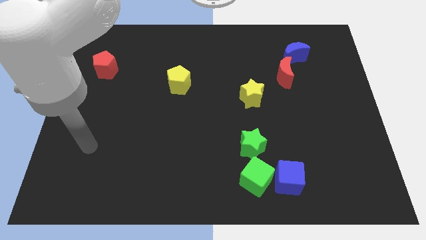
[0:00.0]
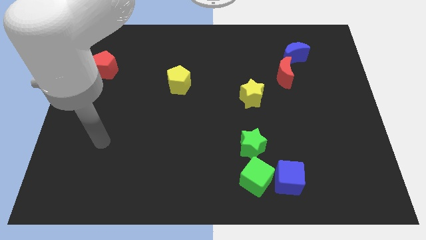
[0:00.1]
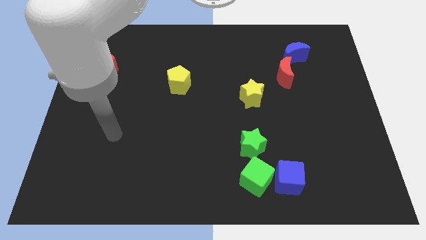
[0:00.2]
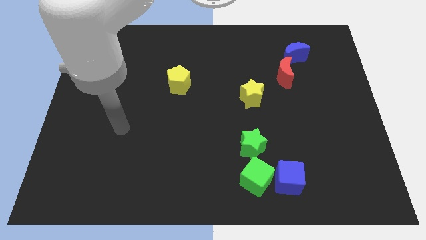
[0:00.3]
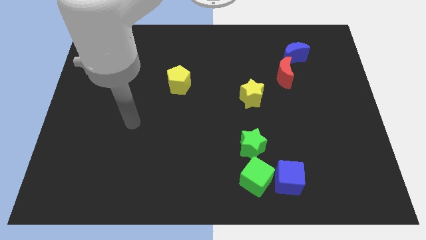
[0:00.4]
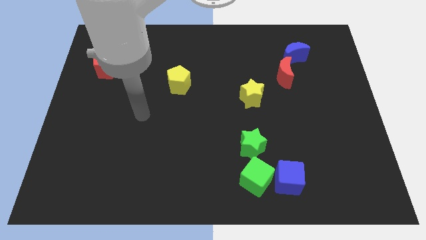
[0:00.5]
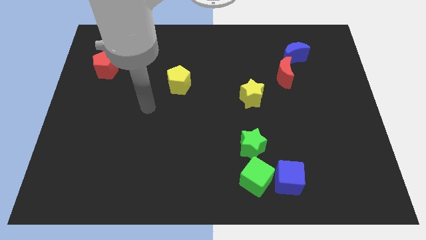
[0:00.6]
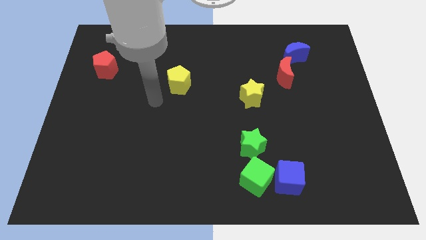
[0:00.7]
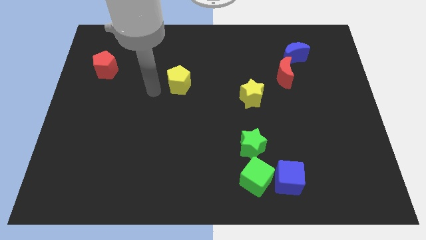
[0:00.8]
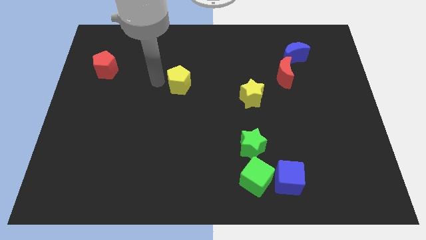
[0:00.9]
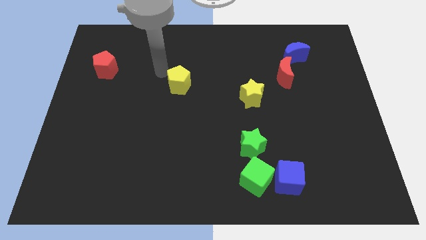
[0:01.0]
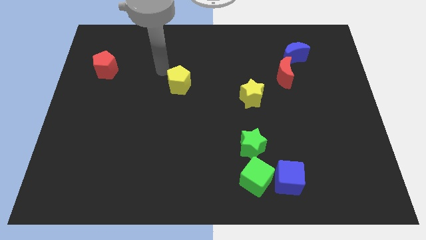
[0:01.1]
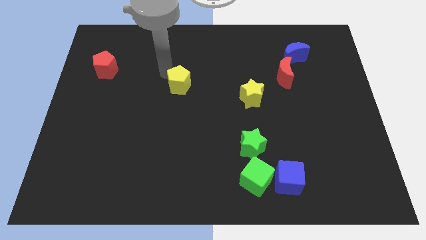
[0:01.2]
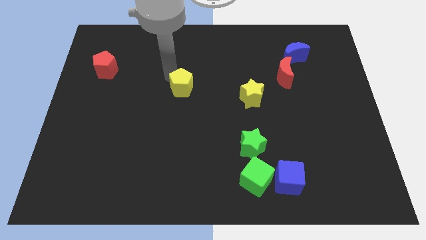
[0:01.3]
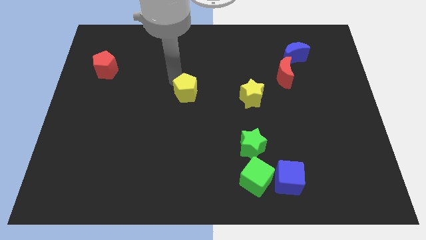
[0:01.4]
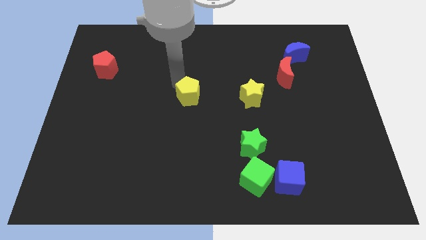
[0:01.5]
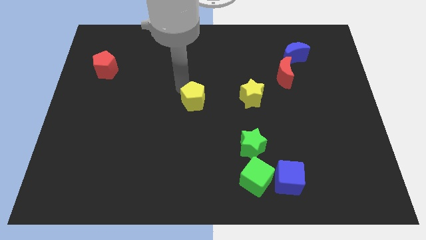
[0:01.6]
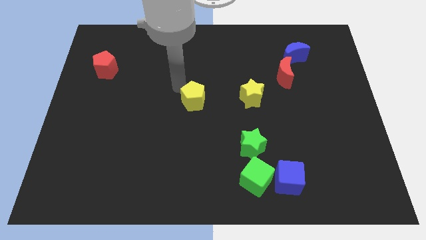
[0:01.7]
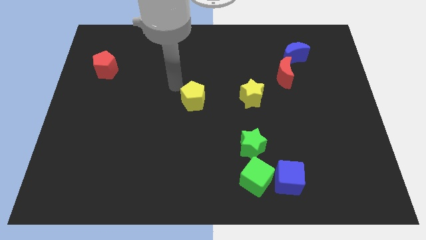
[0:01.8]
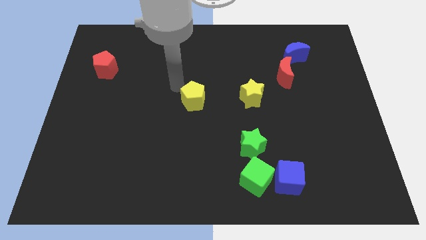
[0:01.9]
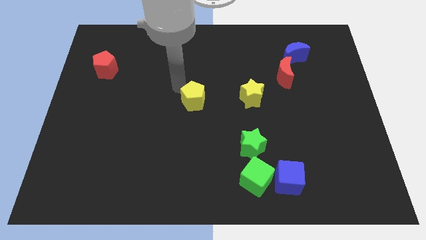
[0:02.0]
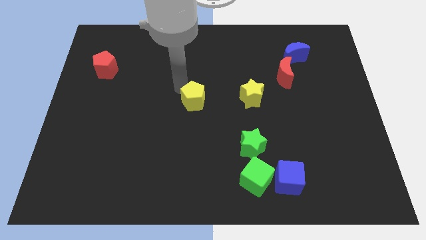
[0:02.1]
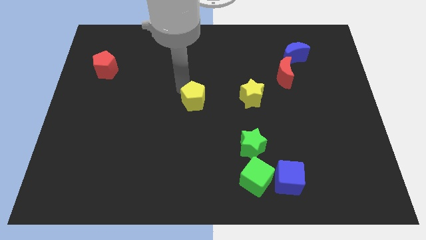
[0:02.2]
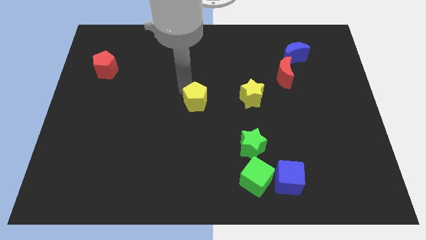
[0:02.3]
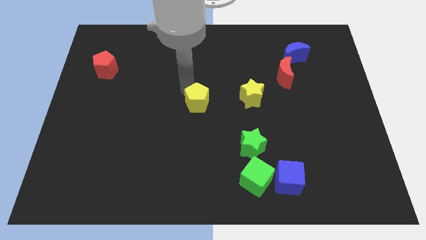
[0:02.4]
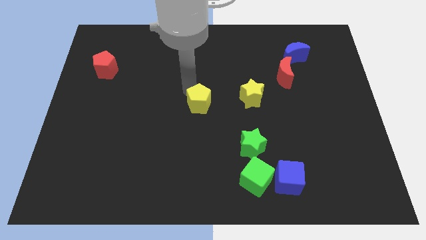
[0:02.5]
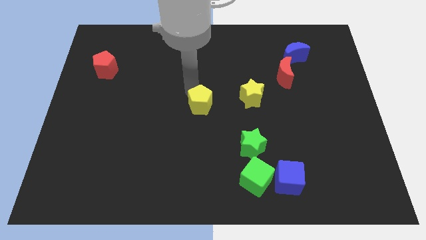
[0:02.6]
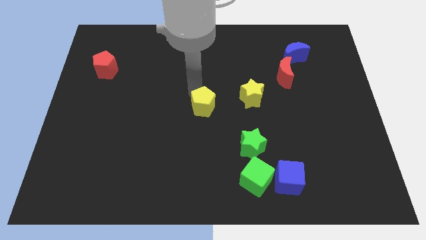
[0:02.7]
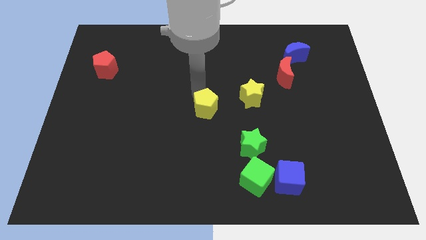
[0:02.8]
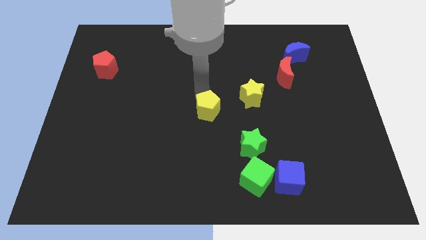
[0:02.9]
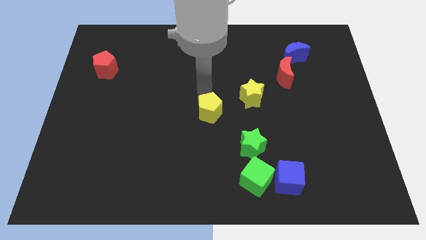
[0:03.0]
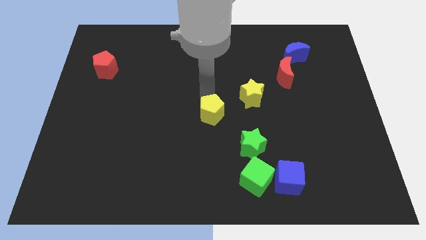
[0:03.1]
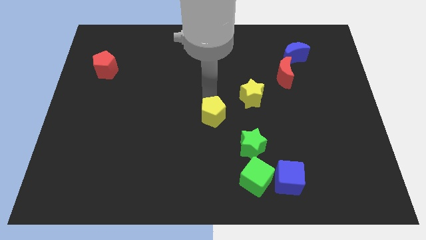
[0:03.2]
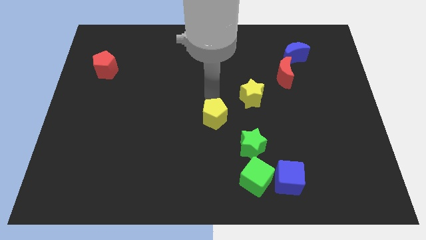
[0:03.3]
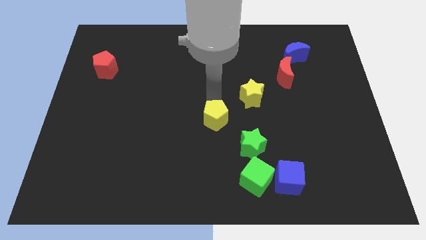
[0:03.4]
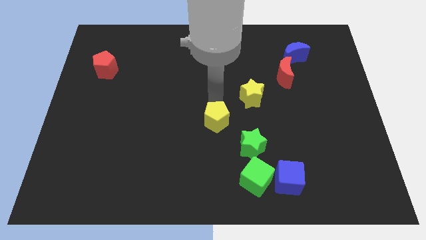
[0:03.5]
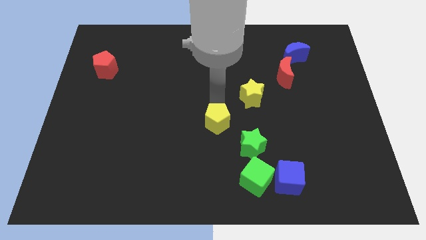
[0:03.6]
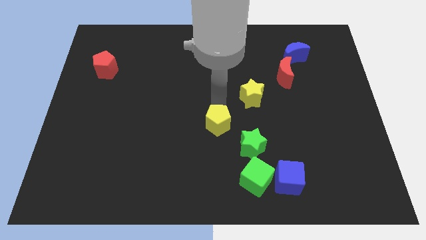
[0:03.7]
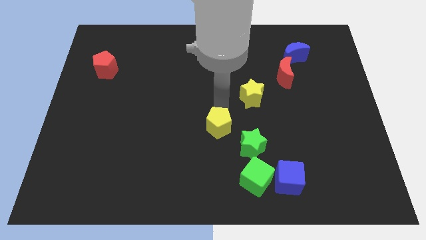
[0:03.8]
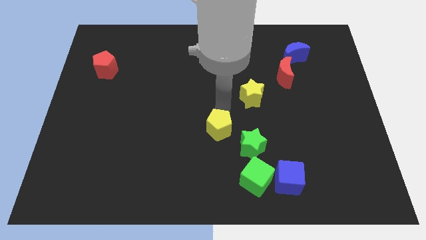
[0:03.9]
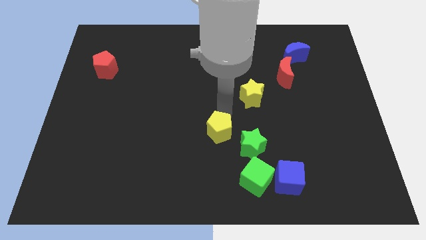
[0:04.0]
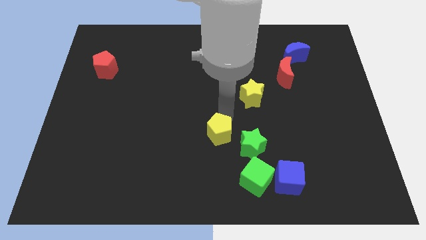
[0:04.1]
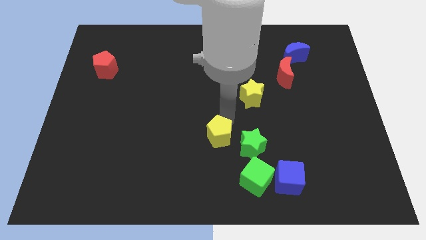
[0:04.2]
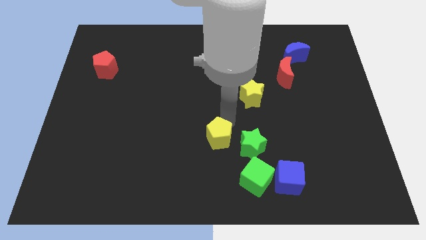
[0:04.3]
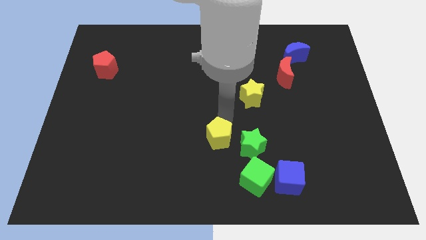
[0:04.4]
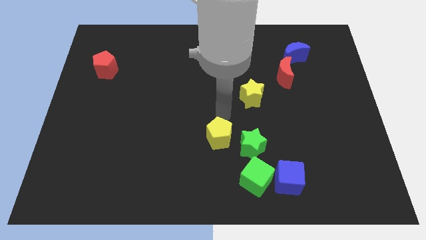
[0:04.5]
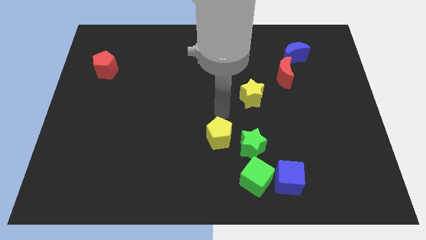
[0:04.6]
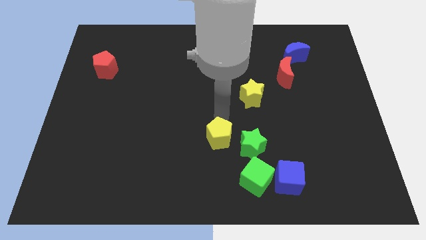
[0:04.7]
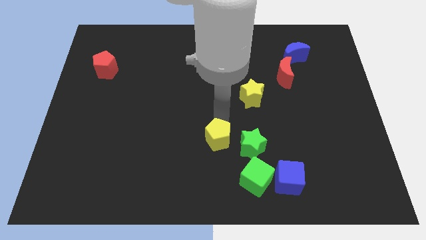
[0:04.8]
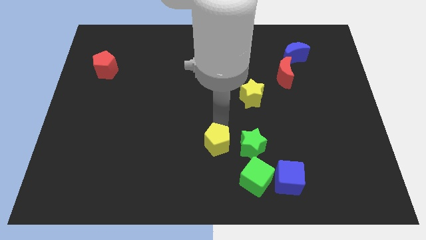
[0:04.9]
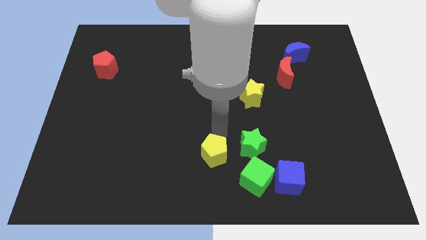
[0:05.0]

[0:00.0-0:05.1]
slide the yellow pentagon to the bottom

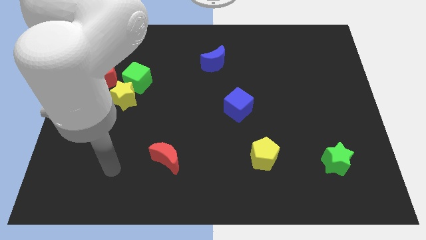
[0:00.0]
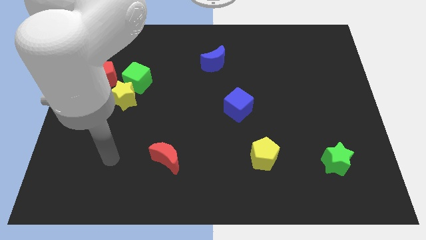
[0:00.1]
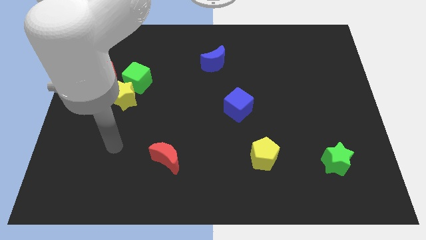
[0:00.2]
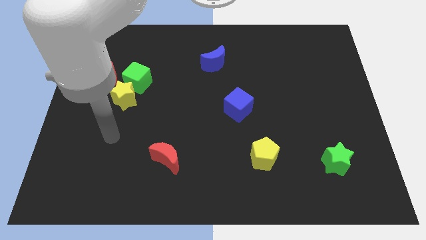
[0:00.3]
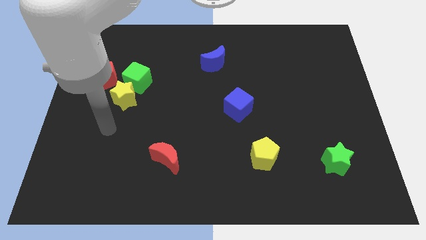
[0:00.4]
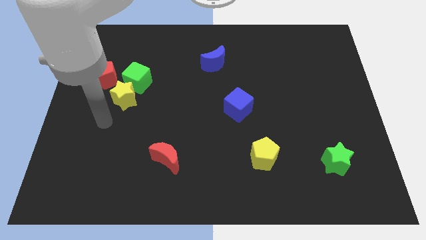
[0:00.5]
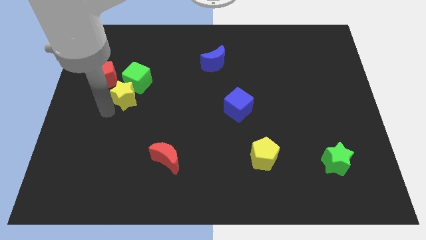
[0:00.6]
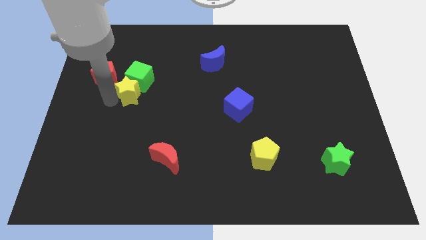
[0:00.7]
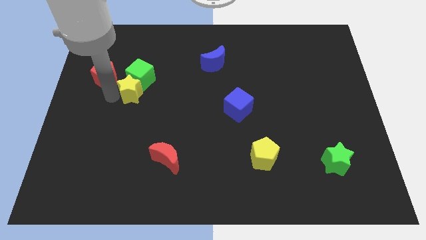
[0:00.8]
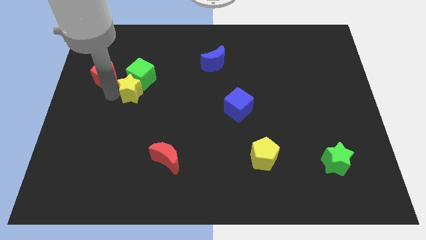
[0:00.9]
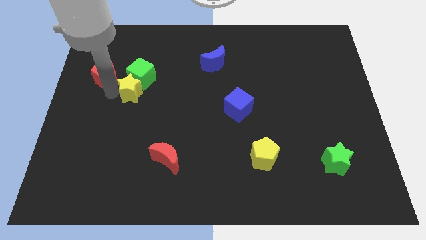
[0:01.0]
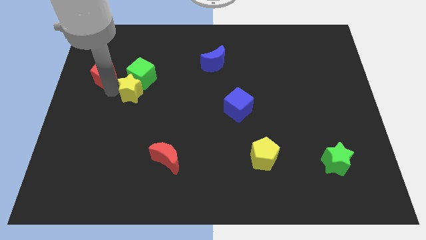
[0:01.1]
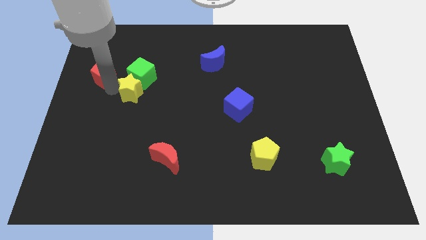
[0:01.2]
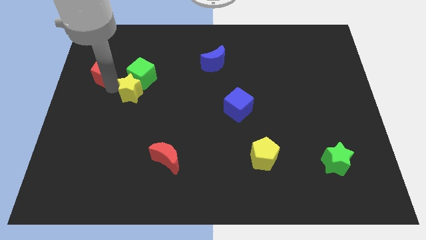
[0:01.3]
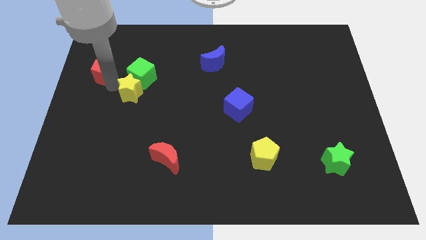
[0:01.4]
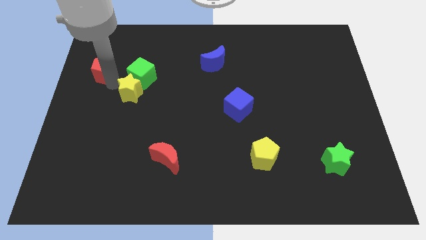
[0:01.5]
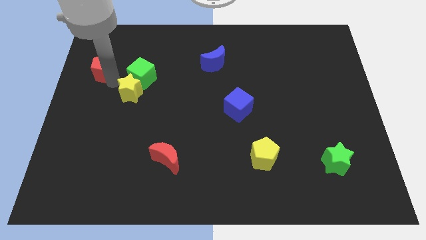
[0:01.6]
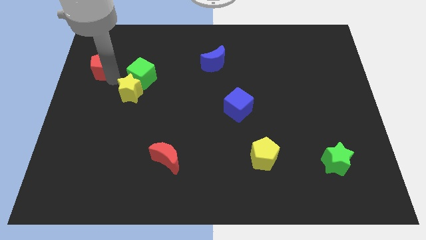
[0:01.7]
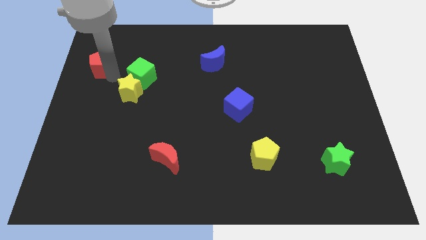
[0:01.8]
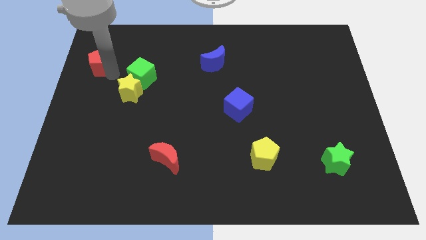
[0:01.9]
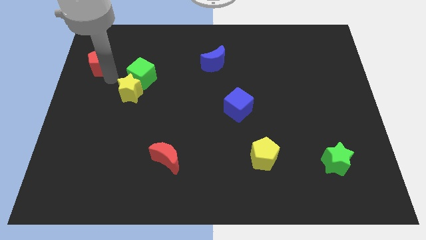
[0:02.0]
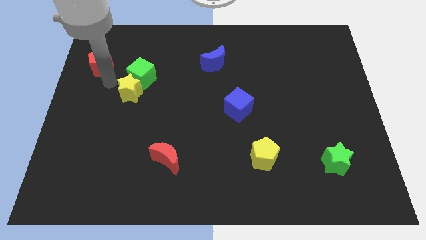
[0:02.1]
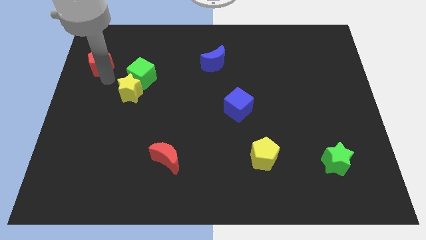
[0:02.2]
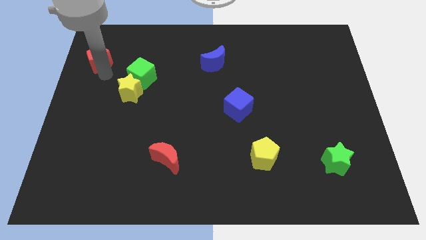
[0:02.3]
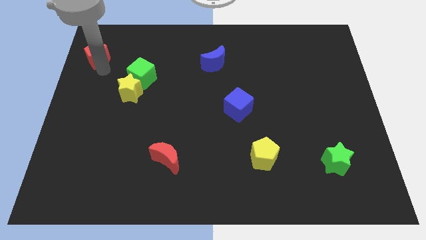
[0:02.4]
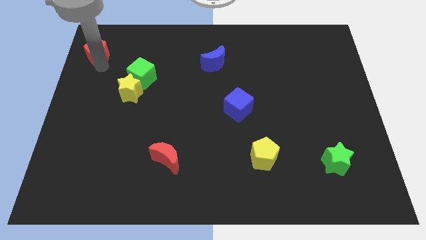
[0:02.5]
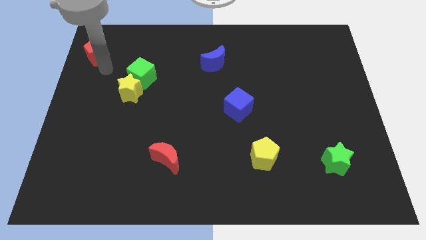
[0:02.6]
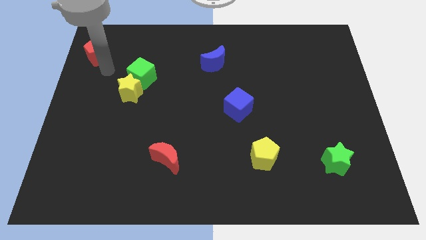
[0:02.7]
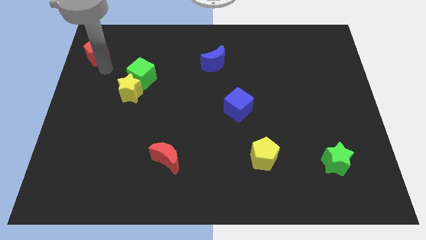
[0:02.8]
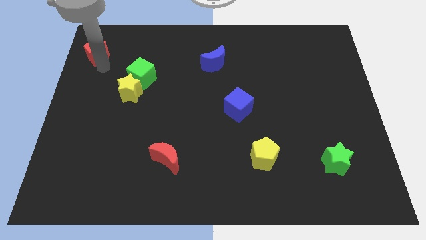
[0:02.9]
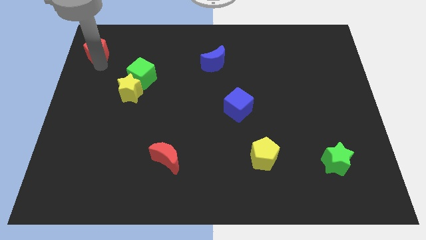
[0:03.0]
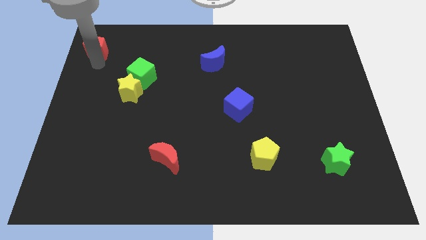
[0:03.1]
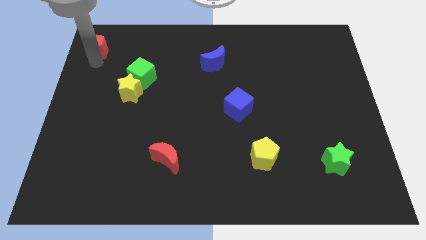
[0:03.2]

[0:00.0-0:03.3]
put the red pentagon to the top left of the board
